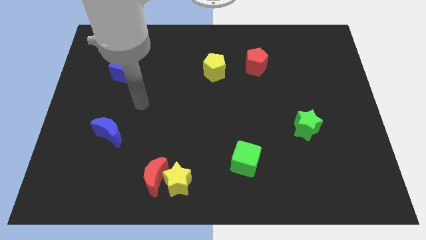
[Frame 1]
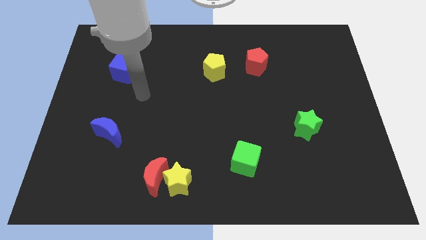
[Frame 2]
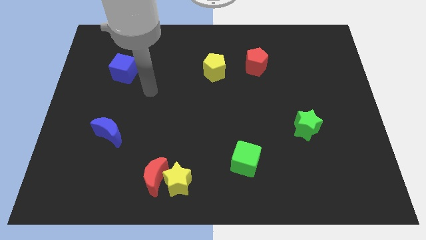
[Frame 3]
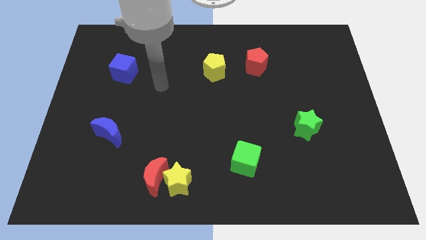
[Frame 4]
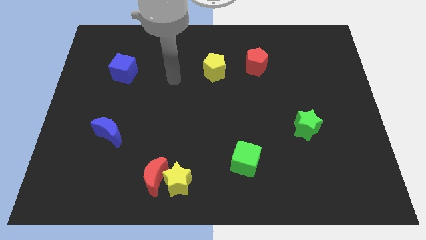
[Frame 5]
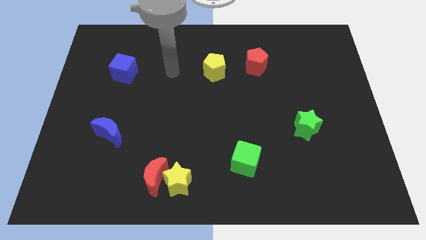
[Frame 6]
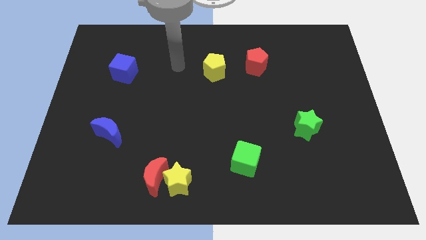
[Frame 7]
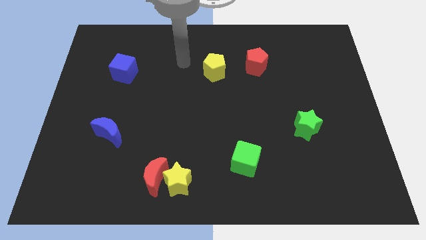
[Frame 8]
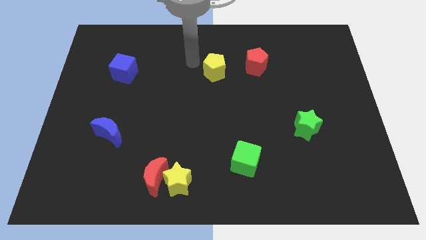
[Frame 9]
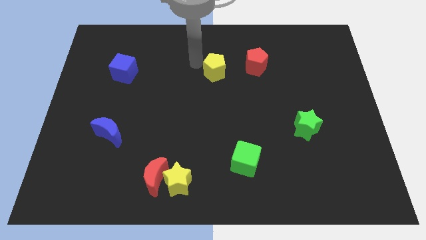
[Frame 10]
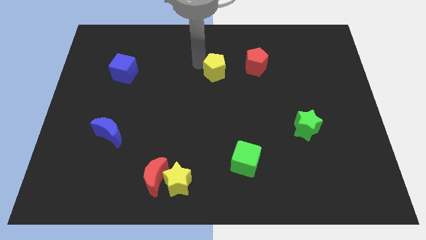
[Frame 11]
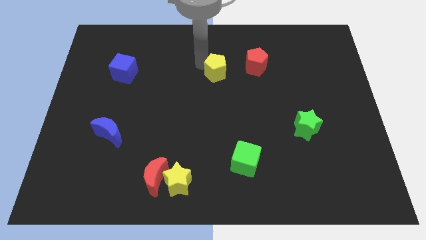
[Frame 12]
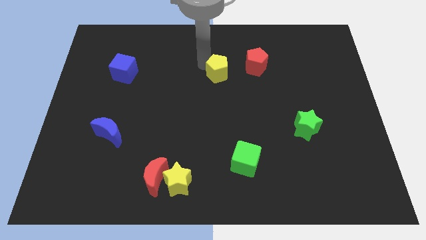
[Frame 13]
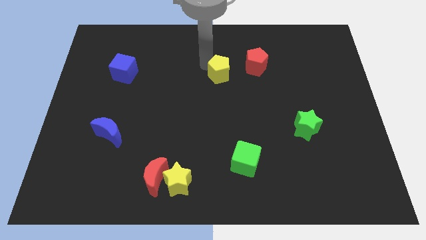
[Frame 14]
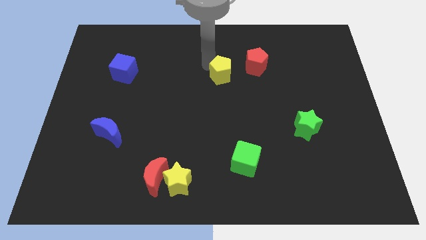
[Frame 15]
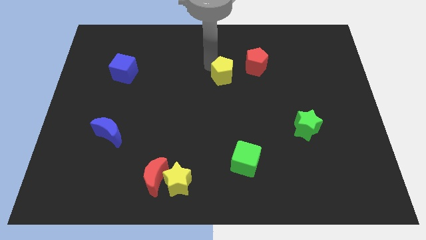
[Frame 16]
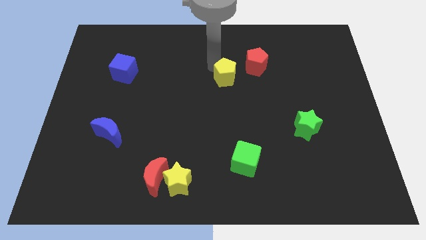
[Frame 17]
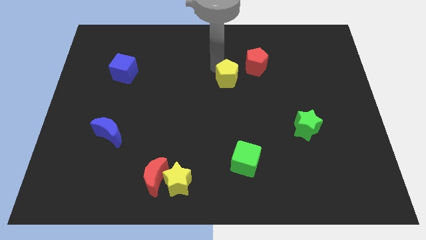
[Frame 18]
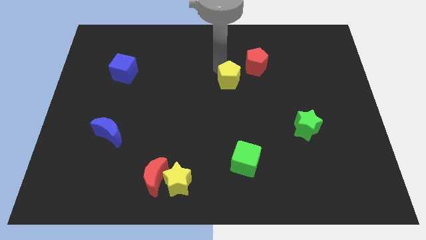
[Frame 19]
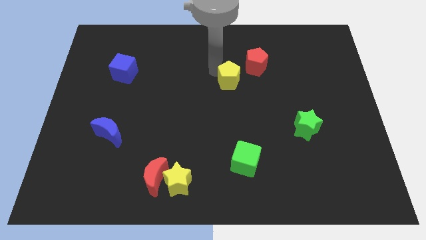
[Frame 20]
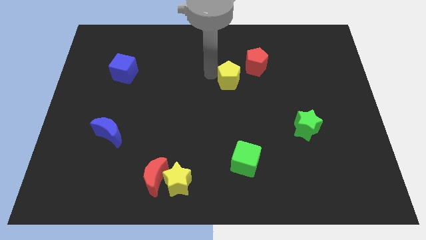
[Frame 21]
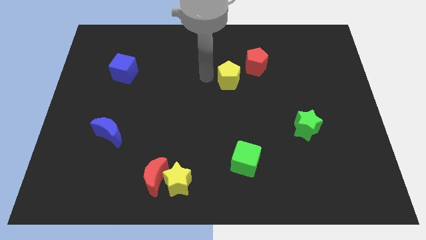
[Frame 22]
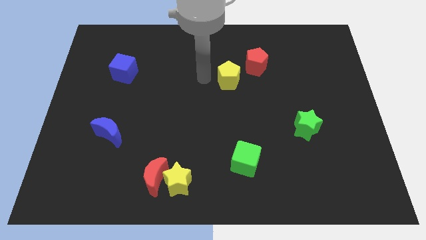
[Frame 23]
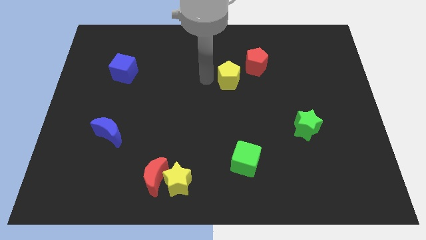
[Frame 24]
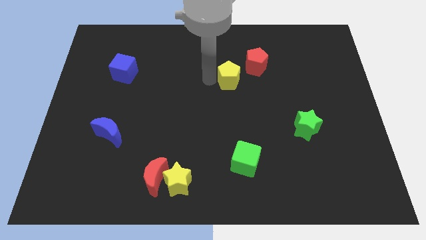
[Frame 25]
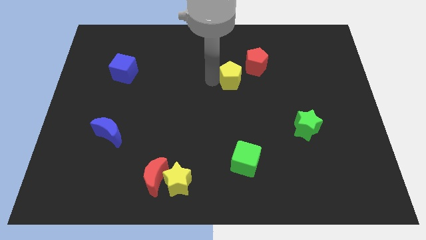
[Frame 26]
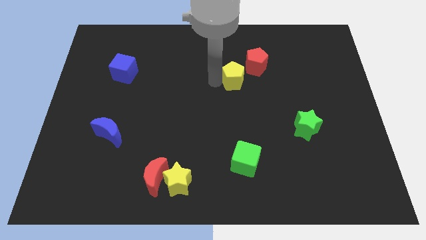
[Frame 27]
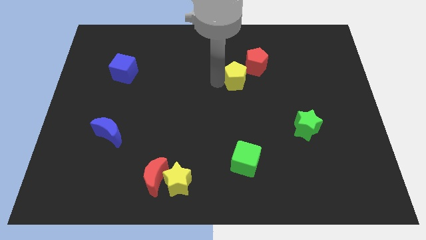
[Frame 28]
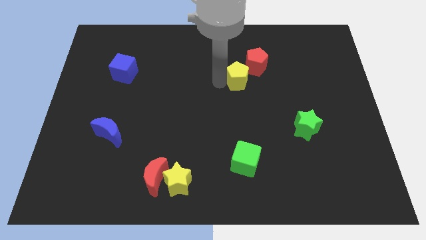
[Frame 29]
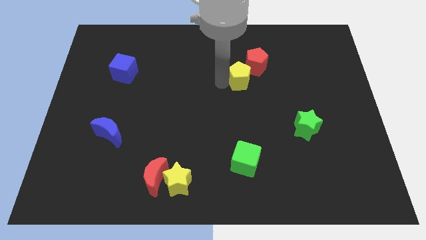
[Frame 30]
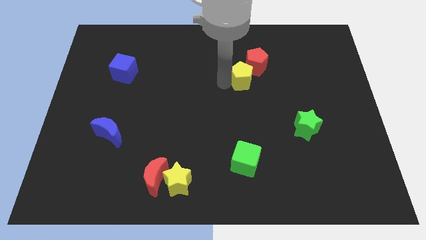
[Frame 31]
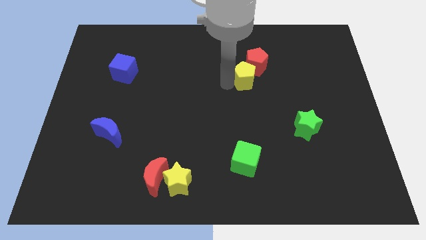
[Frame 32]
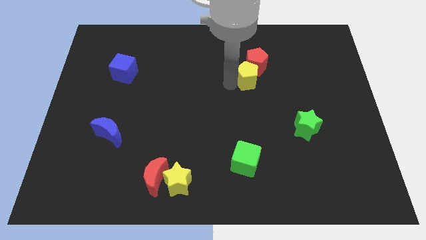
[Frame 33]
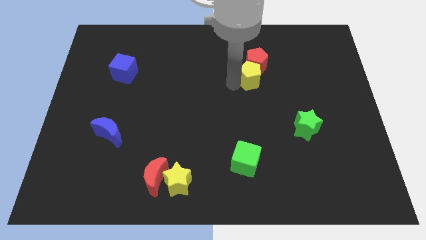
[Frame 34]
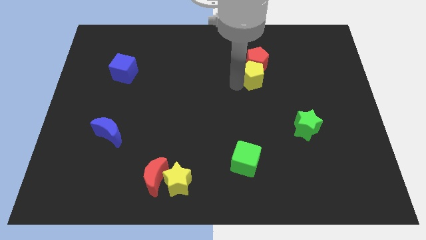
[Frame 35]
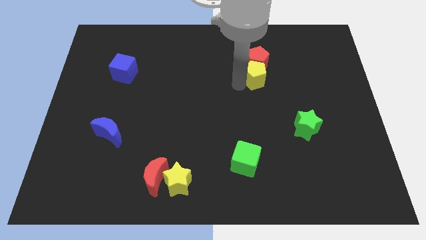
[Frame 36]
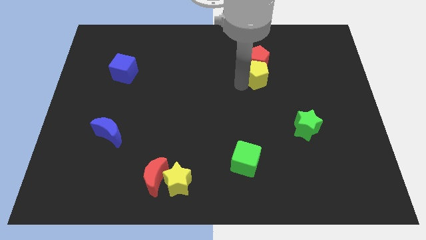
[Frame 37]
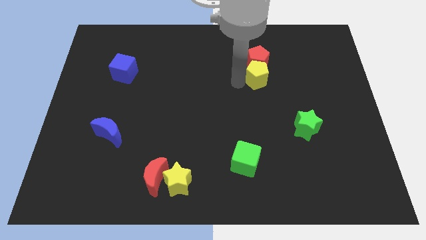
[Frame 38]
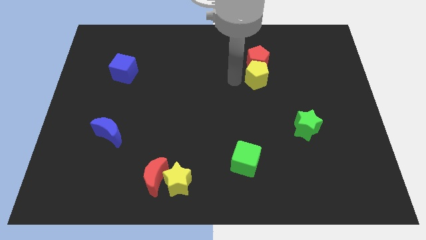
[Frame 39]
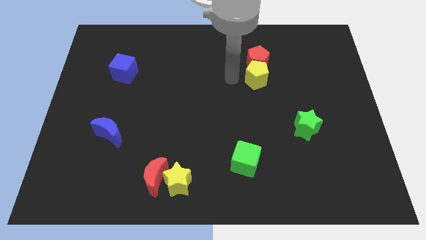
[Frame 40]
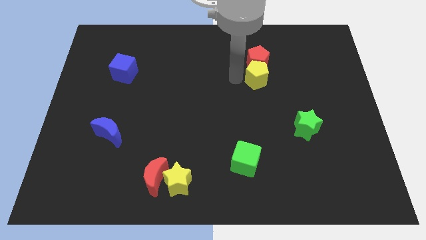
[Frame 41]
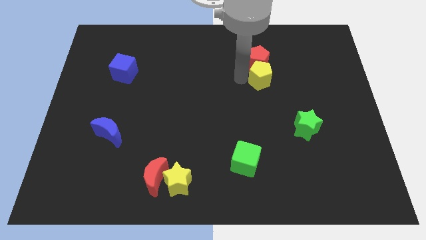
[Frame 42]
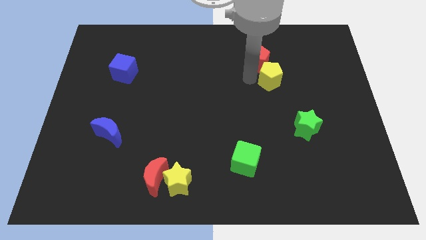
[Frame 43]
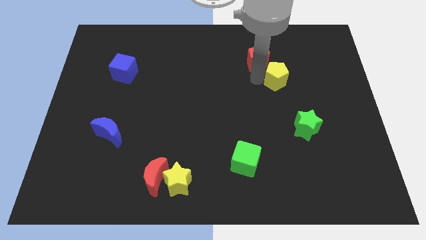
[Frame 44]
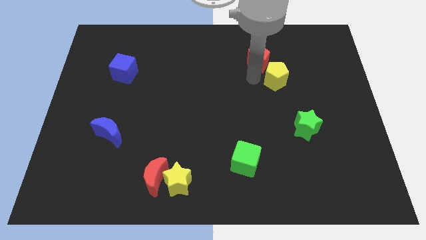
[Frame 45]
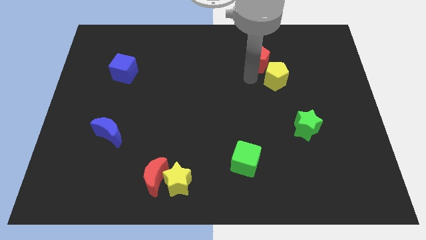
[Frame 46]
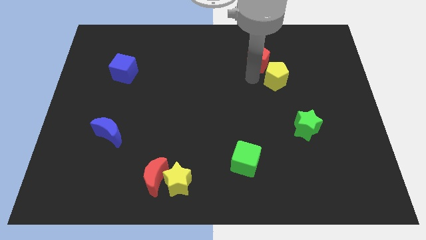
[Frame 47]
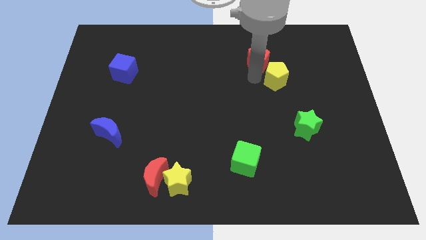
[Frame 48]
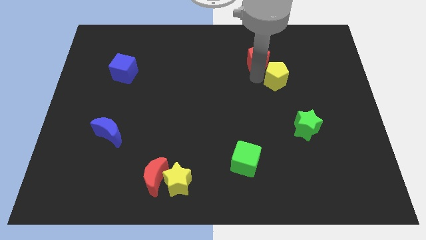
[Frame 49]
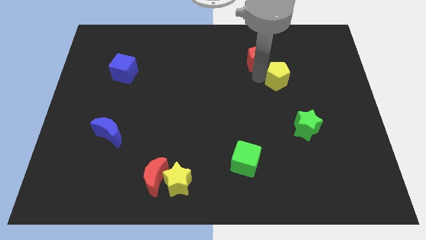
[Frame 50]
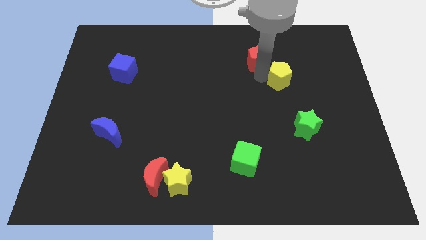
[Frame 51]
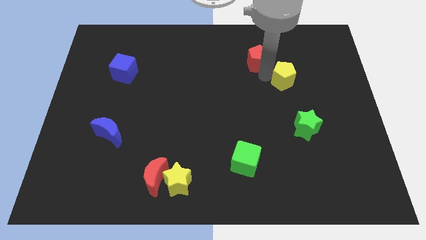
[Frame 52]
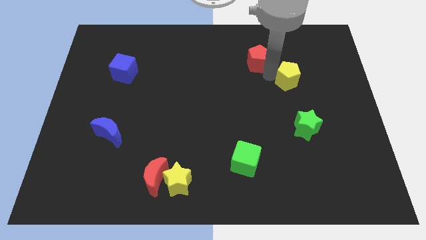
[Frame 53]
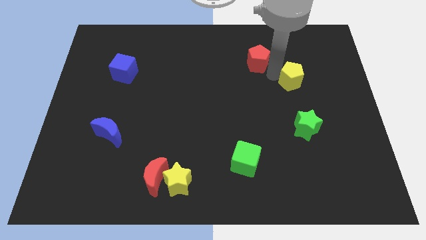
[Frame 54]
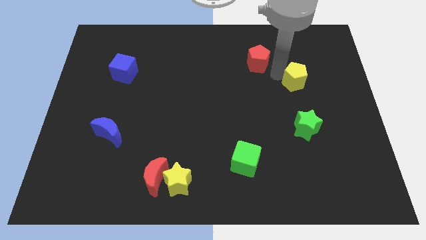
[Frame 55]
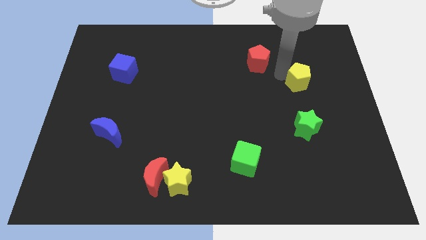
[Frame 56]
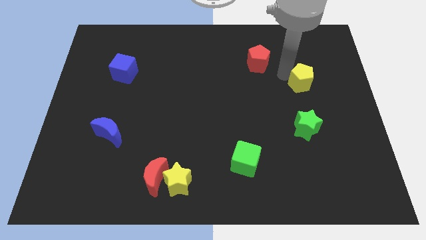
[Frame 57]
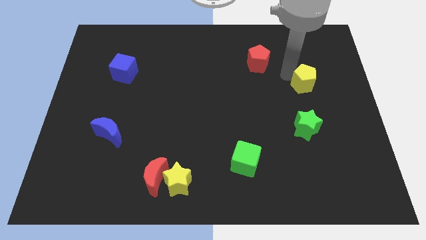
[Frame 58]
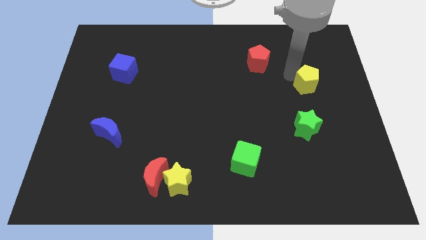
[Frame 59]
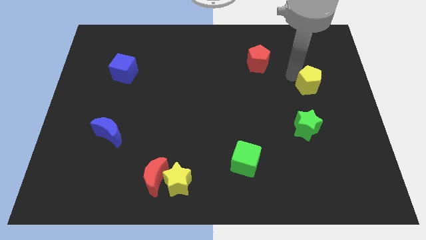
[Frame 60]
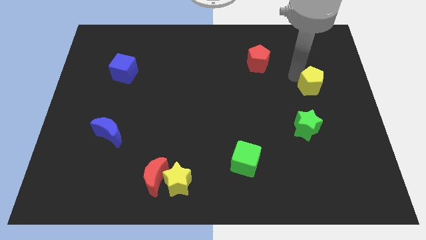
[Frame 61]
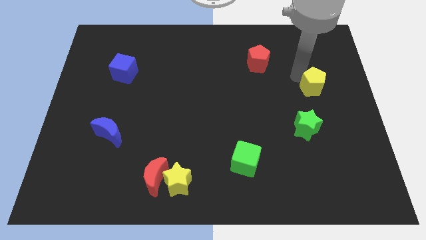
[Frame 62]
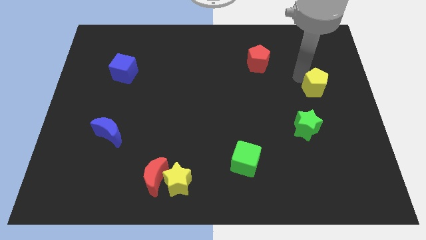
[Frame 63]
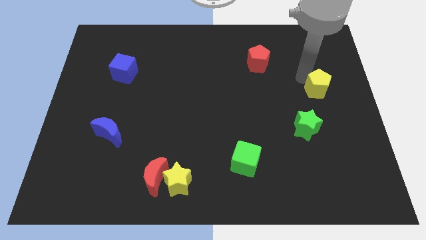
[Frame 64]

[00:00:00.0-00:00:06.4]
push the yellow pentagon to the right side
